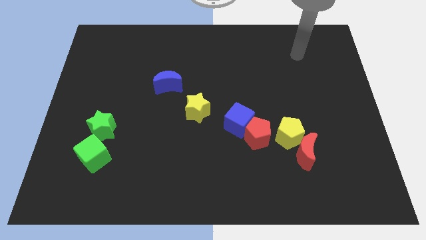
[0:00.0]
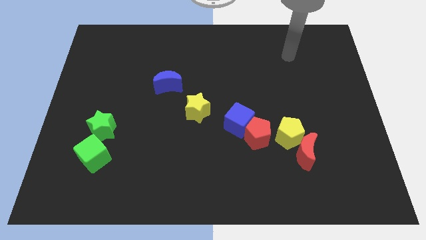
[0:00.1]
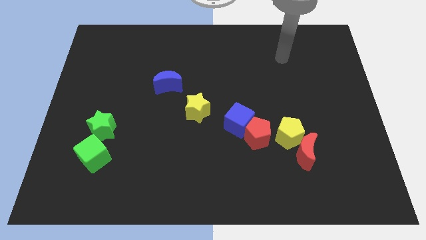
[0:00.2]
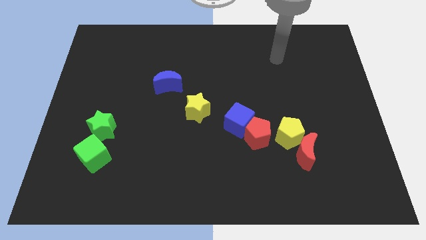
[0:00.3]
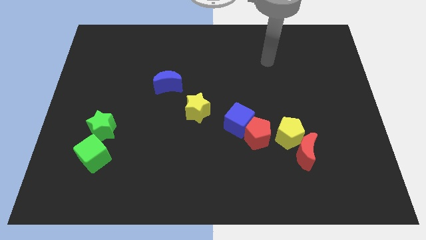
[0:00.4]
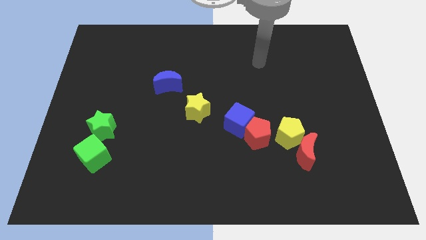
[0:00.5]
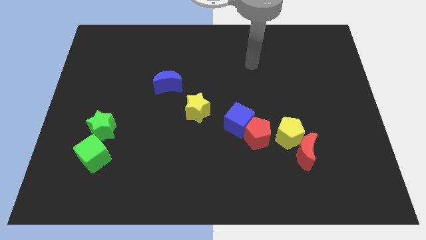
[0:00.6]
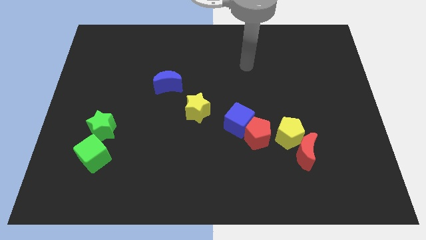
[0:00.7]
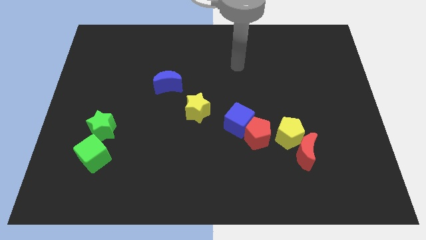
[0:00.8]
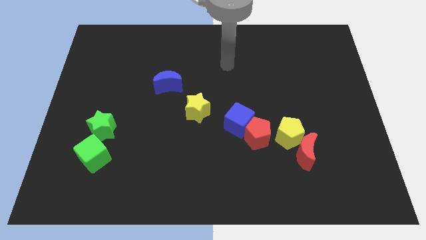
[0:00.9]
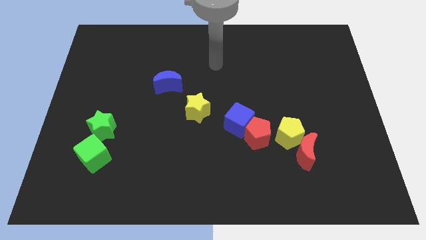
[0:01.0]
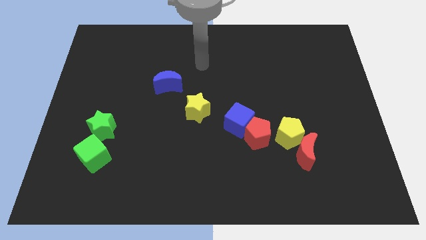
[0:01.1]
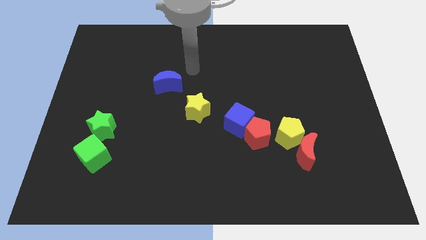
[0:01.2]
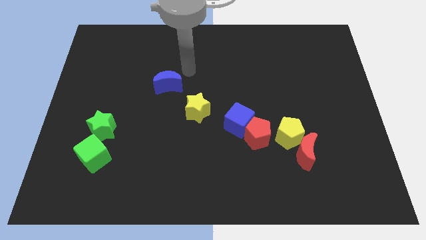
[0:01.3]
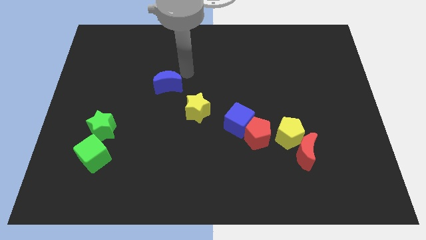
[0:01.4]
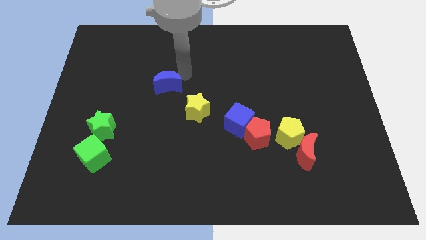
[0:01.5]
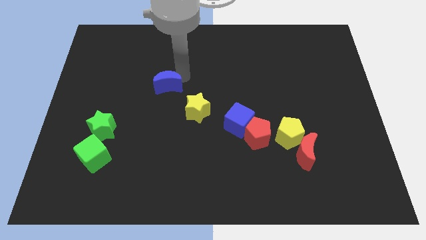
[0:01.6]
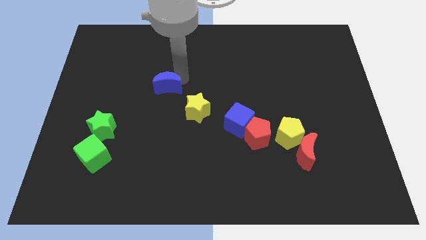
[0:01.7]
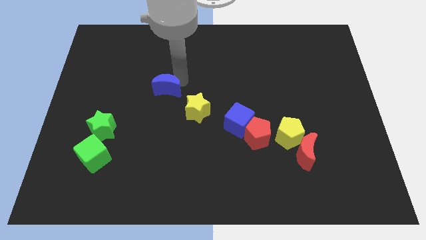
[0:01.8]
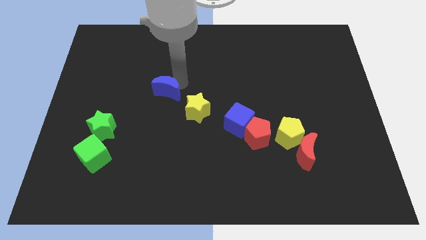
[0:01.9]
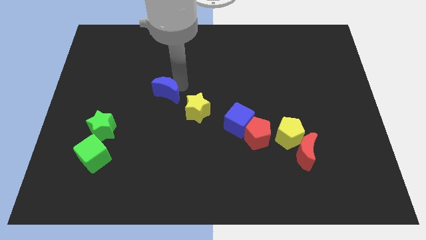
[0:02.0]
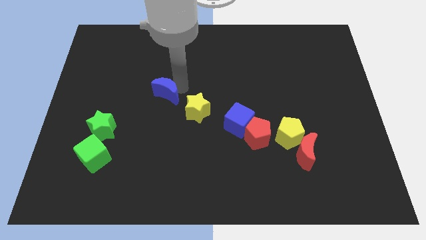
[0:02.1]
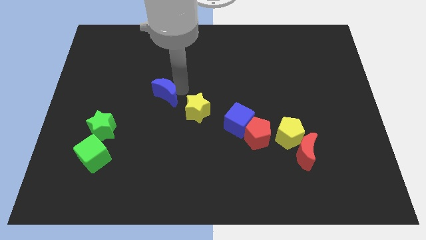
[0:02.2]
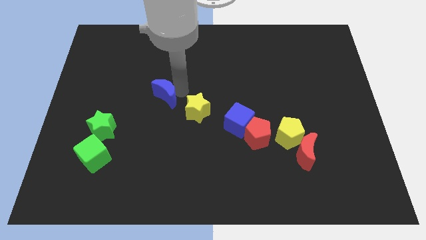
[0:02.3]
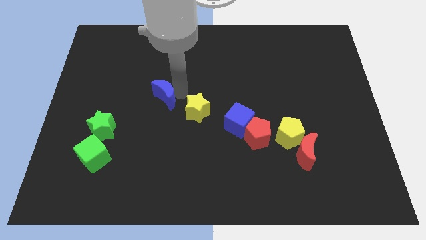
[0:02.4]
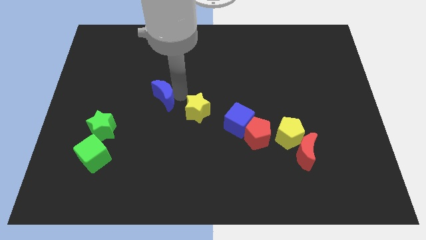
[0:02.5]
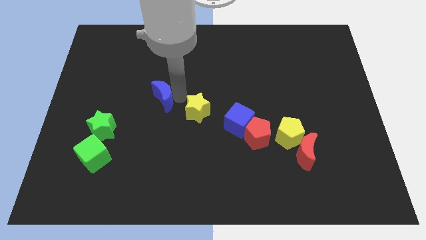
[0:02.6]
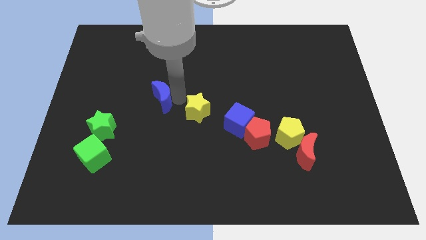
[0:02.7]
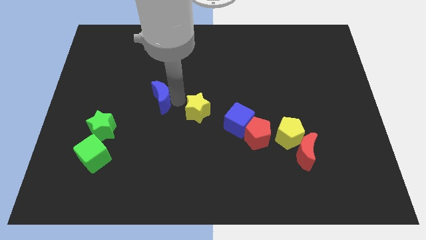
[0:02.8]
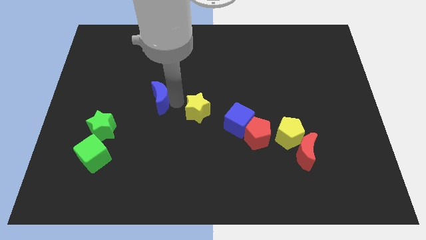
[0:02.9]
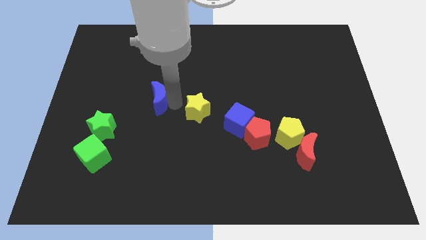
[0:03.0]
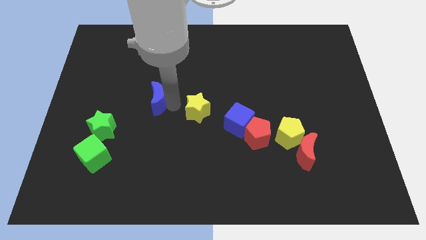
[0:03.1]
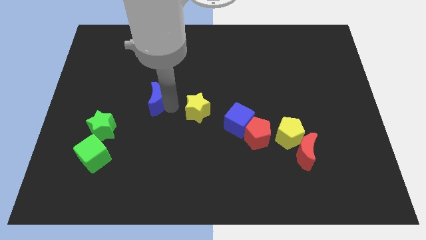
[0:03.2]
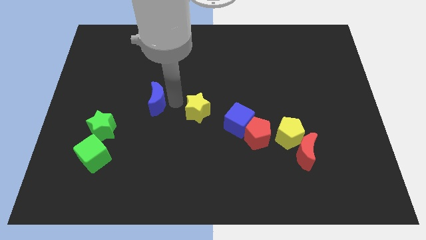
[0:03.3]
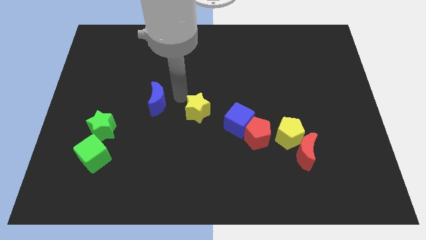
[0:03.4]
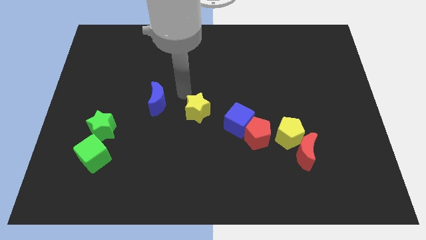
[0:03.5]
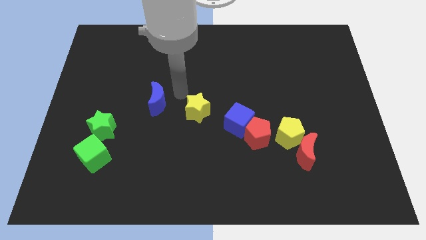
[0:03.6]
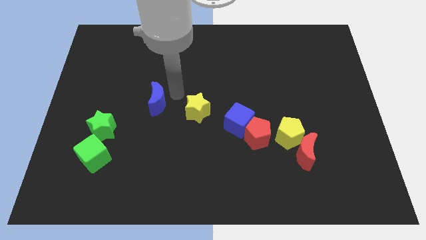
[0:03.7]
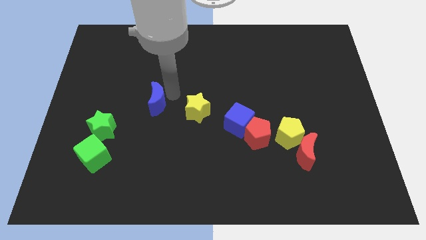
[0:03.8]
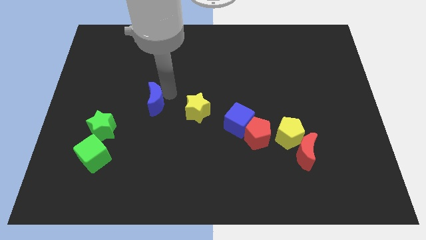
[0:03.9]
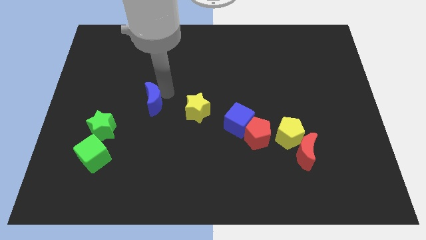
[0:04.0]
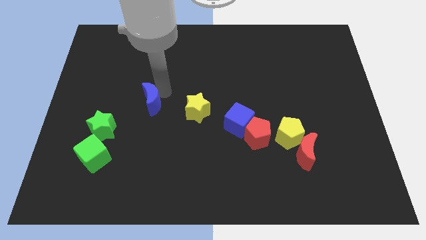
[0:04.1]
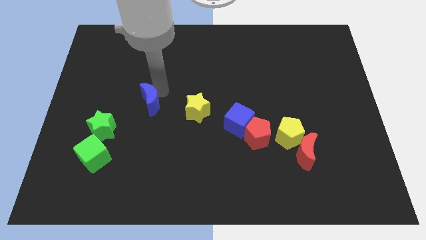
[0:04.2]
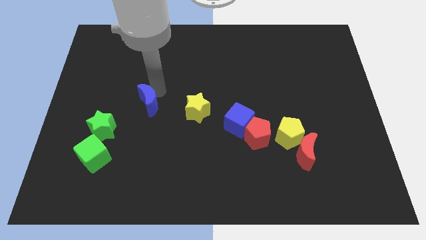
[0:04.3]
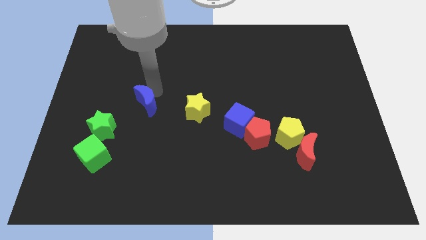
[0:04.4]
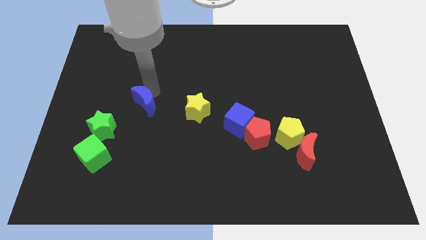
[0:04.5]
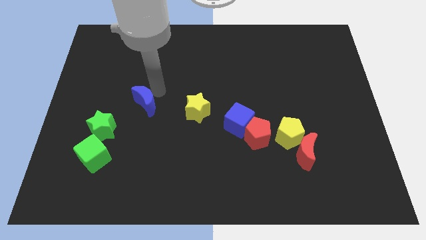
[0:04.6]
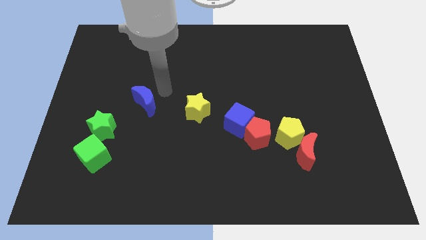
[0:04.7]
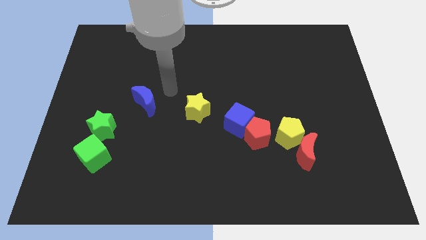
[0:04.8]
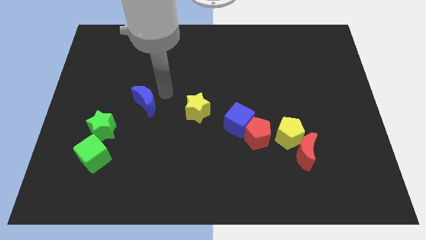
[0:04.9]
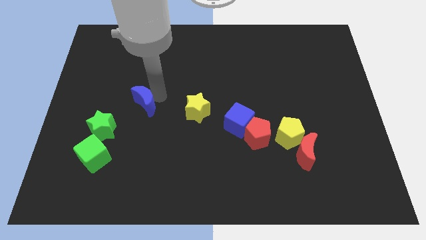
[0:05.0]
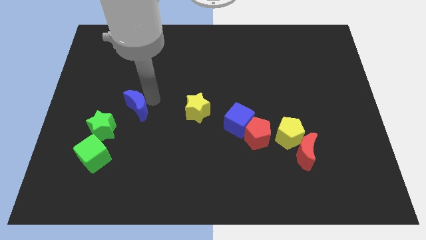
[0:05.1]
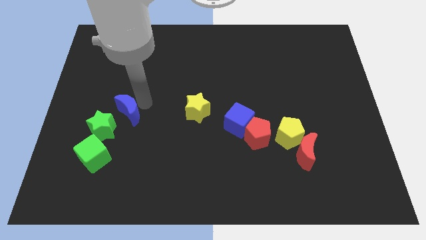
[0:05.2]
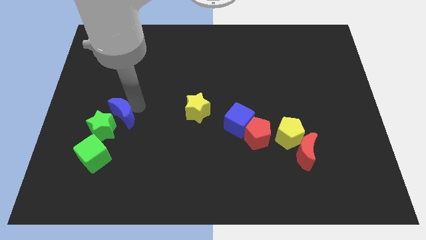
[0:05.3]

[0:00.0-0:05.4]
put the blue moon close to the green star

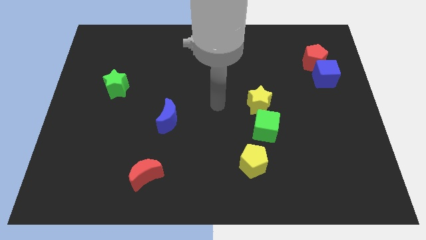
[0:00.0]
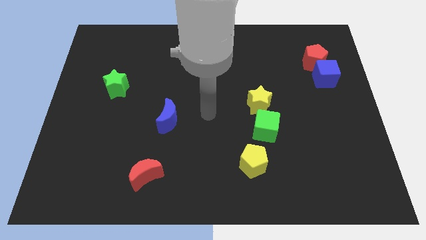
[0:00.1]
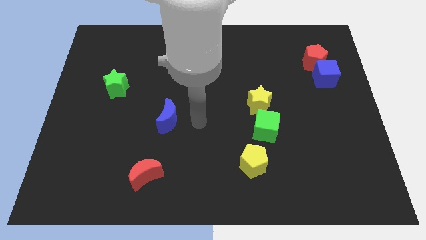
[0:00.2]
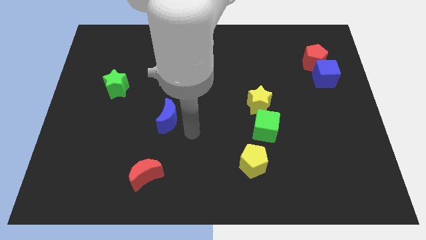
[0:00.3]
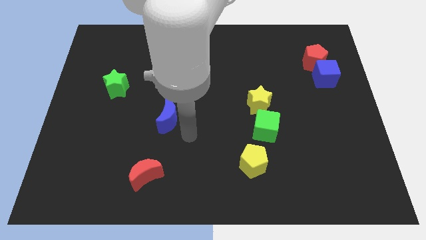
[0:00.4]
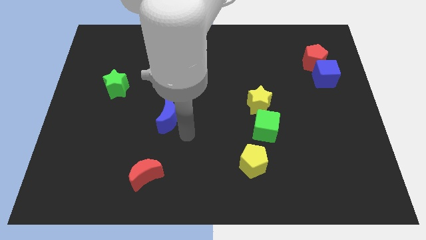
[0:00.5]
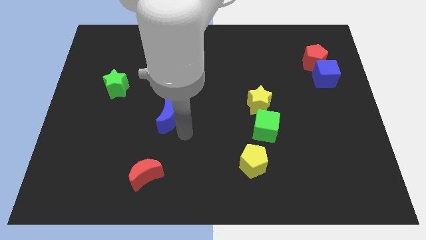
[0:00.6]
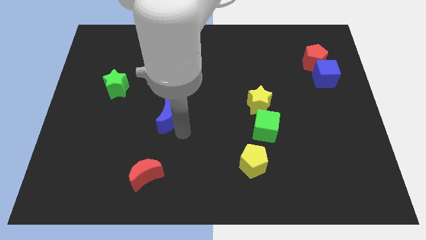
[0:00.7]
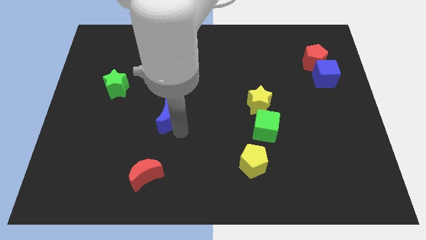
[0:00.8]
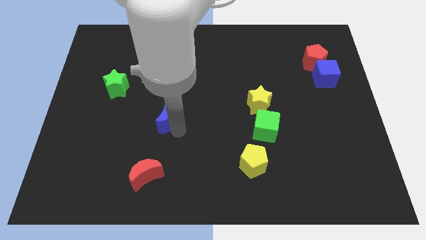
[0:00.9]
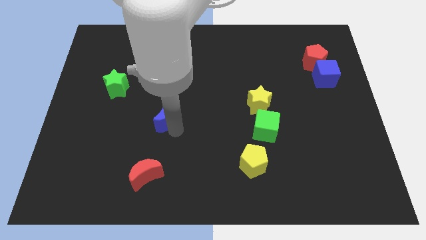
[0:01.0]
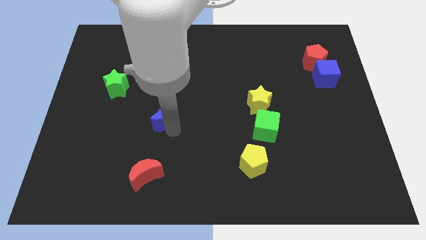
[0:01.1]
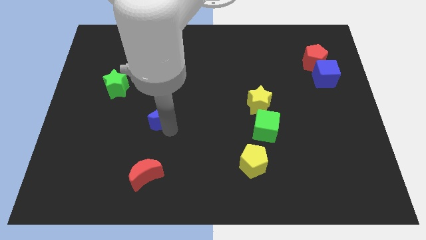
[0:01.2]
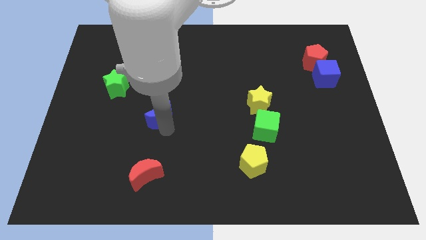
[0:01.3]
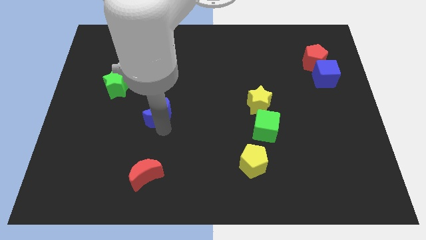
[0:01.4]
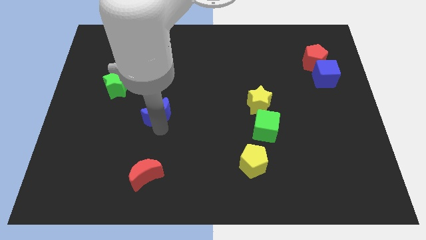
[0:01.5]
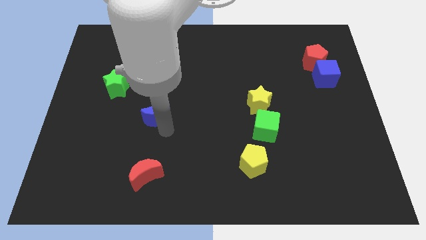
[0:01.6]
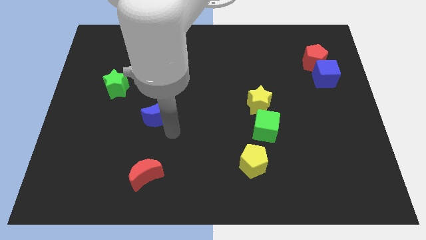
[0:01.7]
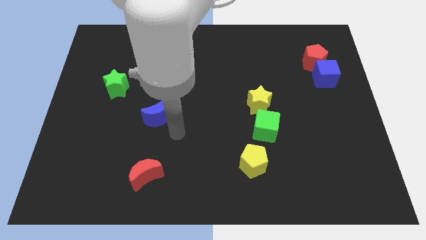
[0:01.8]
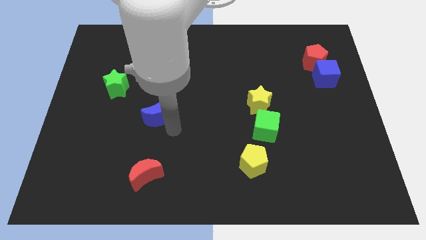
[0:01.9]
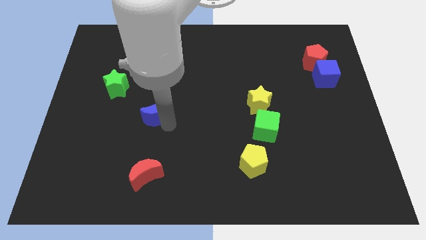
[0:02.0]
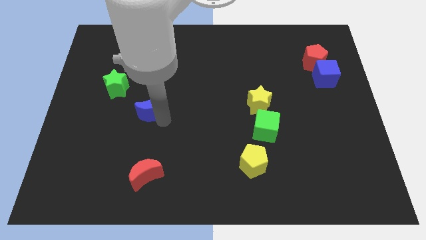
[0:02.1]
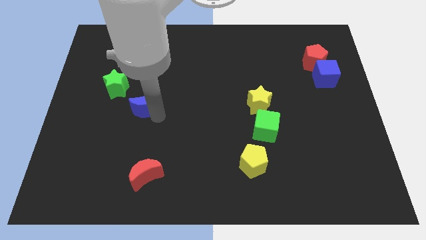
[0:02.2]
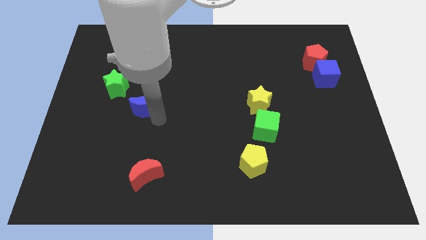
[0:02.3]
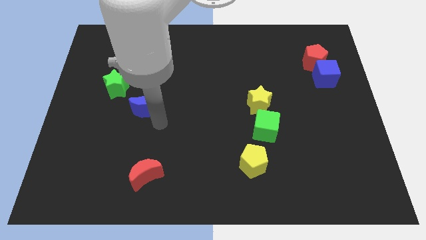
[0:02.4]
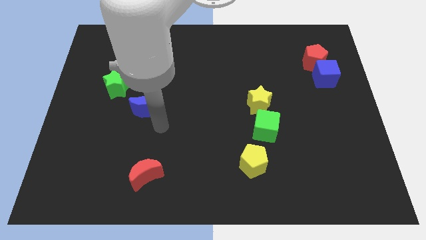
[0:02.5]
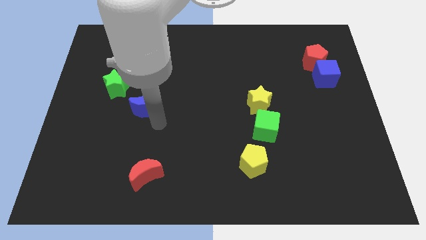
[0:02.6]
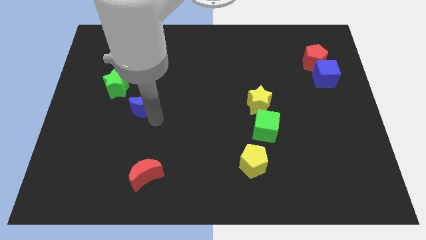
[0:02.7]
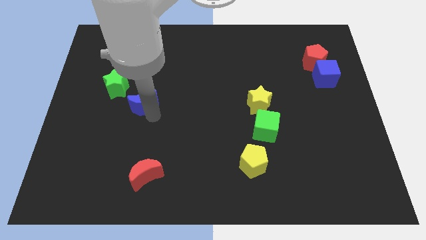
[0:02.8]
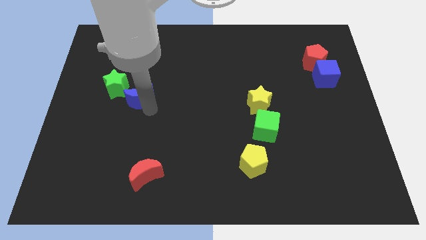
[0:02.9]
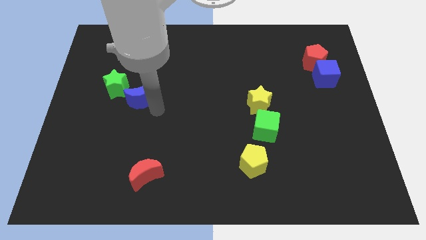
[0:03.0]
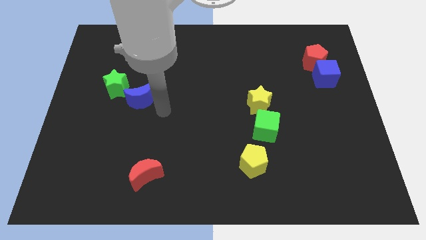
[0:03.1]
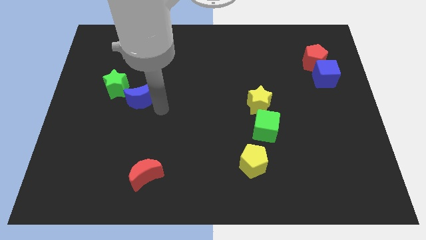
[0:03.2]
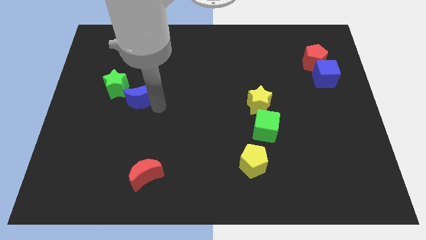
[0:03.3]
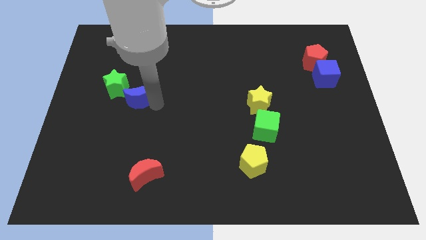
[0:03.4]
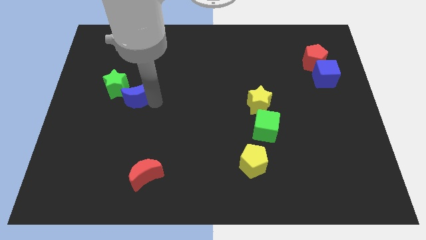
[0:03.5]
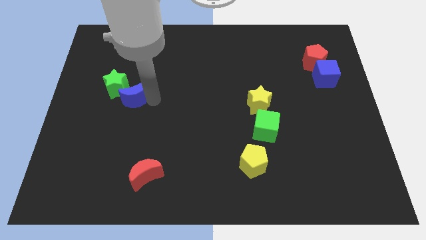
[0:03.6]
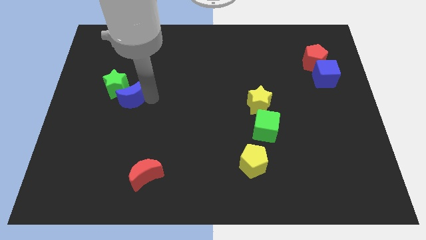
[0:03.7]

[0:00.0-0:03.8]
slide the blue moon close to the green star
